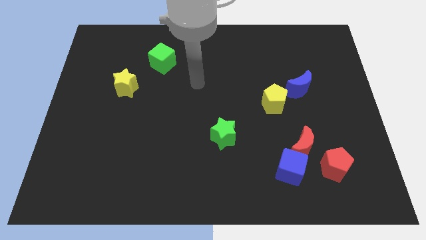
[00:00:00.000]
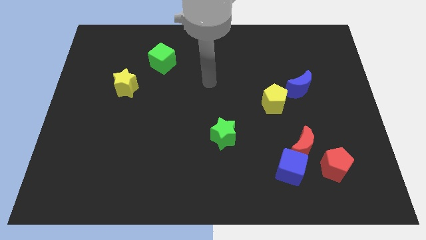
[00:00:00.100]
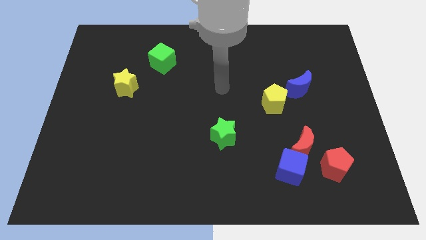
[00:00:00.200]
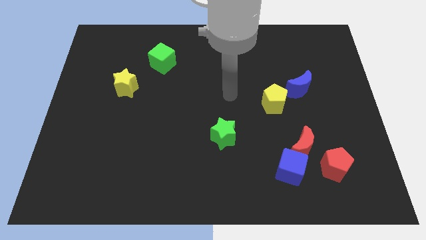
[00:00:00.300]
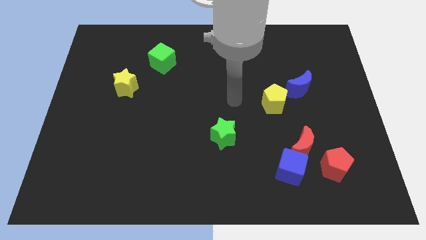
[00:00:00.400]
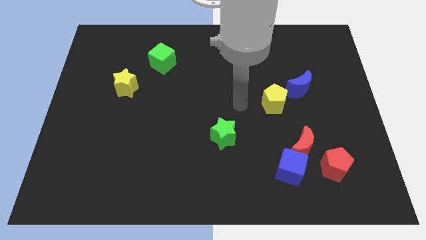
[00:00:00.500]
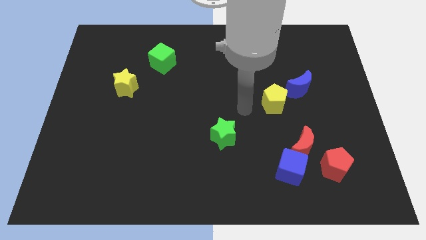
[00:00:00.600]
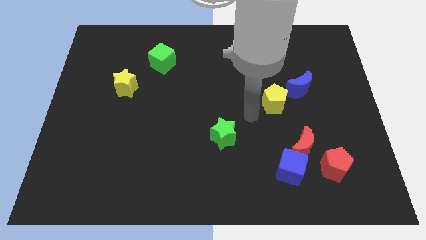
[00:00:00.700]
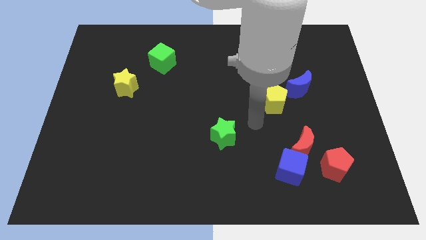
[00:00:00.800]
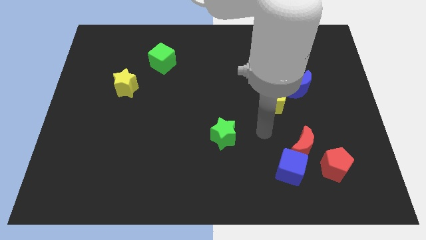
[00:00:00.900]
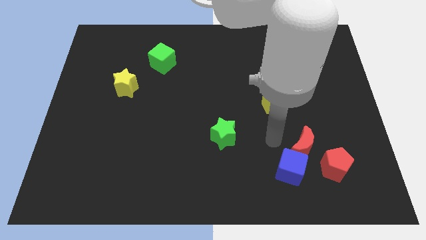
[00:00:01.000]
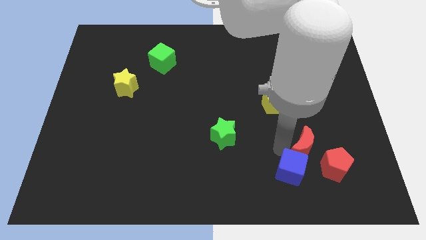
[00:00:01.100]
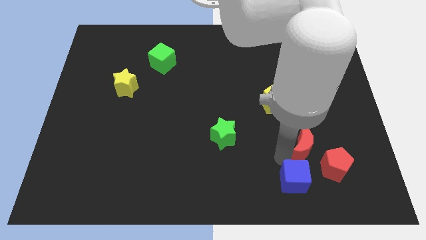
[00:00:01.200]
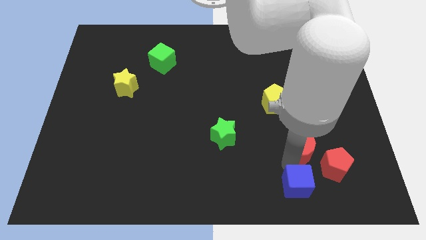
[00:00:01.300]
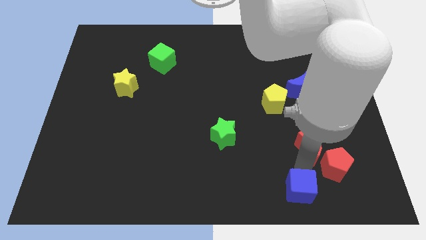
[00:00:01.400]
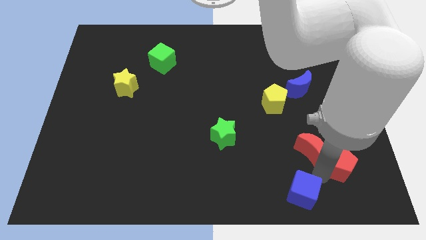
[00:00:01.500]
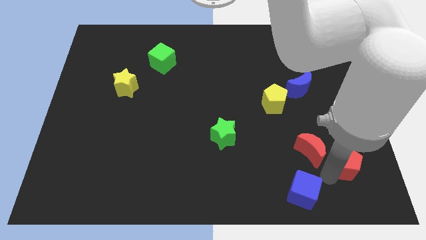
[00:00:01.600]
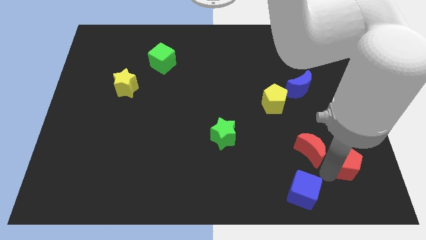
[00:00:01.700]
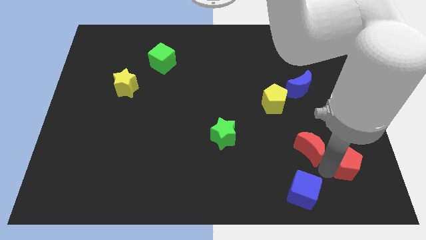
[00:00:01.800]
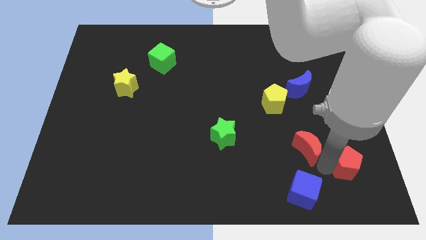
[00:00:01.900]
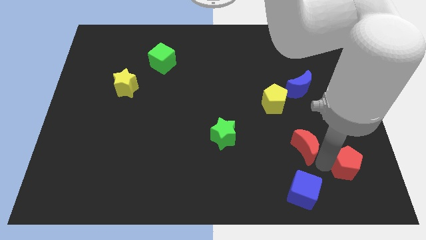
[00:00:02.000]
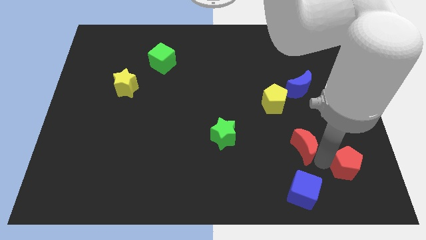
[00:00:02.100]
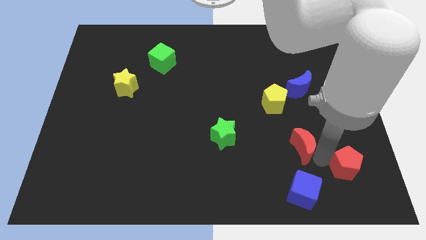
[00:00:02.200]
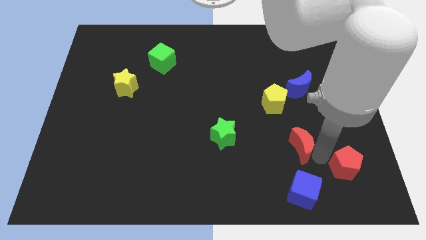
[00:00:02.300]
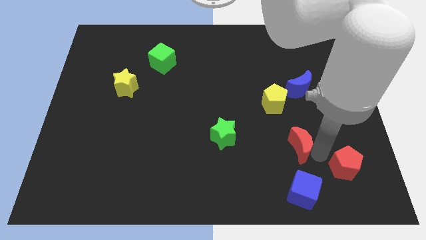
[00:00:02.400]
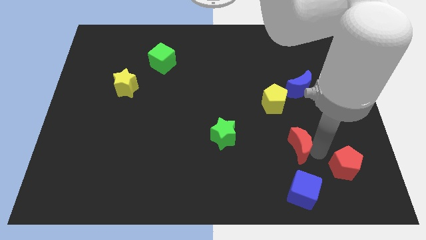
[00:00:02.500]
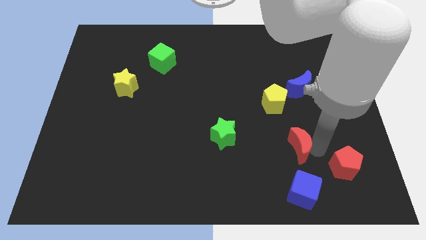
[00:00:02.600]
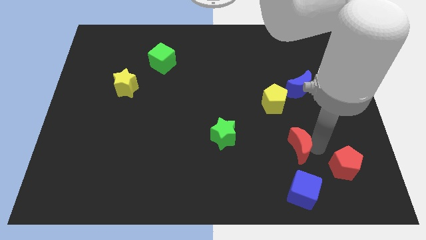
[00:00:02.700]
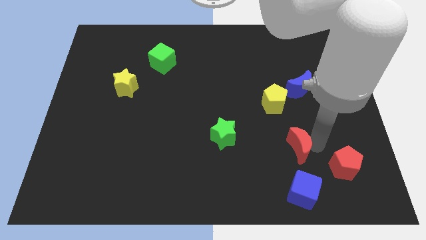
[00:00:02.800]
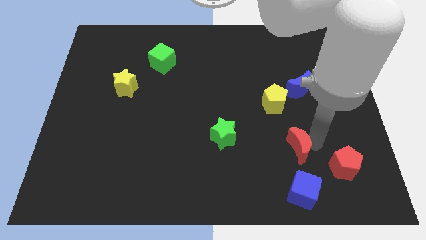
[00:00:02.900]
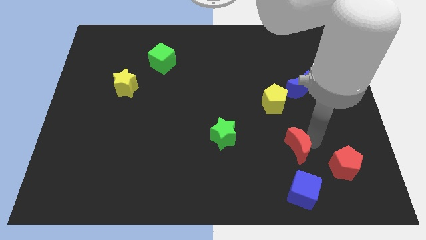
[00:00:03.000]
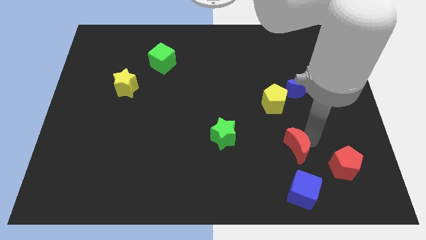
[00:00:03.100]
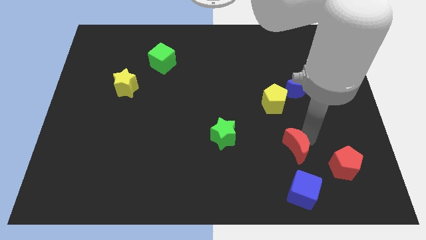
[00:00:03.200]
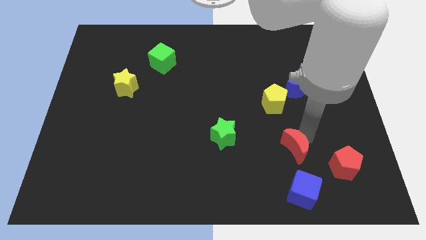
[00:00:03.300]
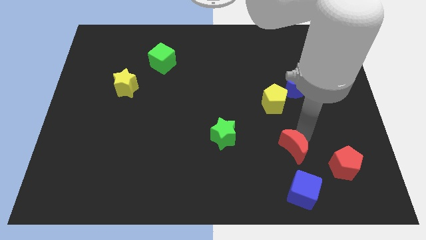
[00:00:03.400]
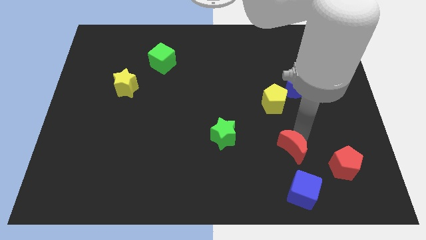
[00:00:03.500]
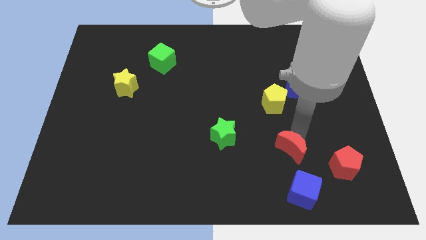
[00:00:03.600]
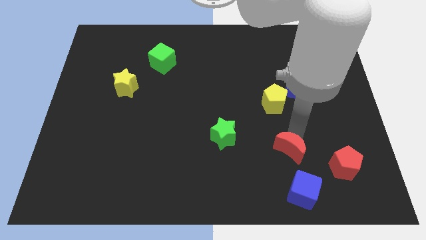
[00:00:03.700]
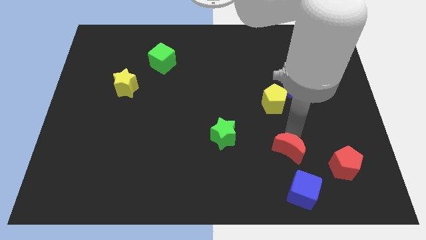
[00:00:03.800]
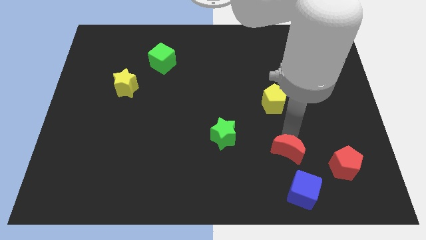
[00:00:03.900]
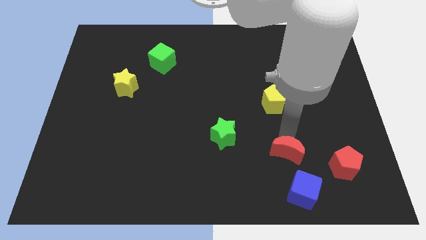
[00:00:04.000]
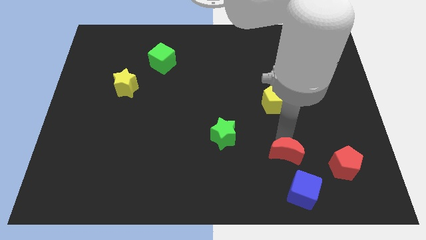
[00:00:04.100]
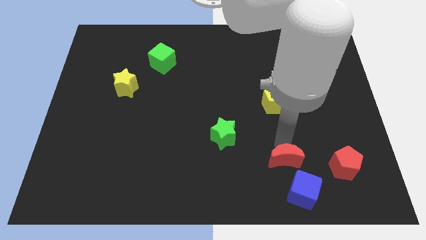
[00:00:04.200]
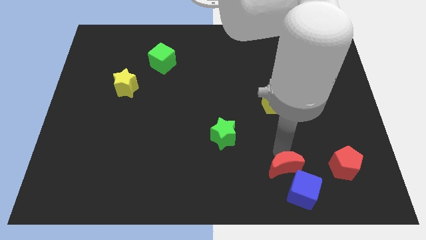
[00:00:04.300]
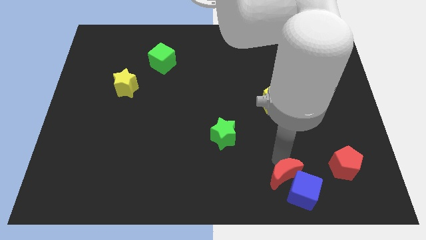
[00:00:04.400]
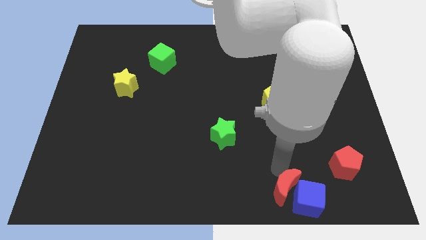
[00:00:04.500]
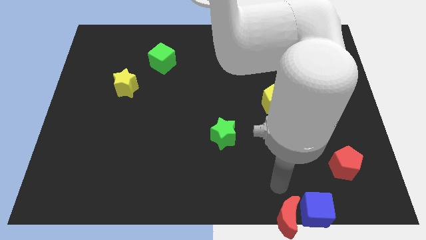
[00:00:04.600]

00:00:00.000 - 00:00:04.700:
pull the red moon apart from the blue cube and red pentagon

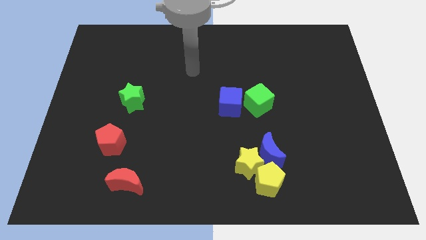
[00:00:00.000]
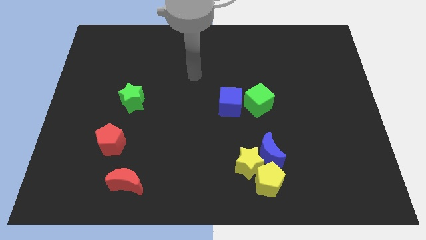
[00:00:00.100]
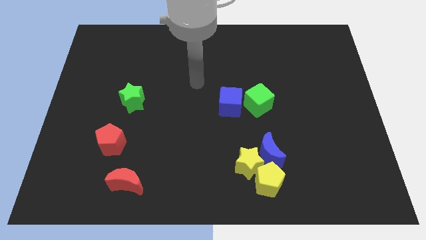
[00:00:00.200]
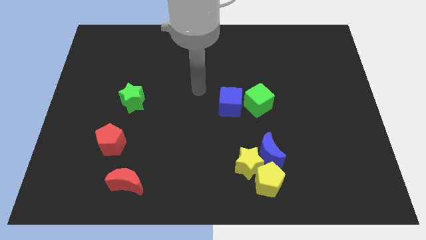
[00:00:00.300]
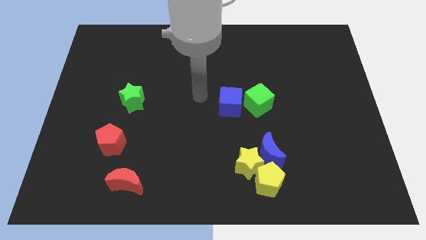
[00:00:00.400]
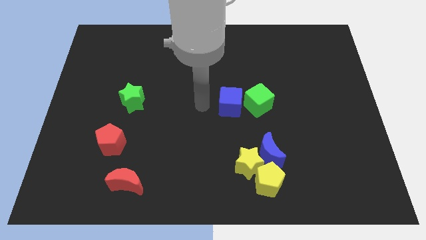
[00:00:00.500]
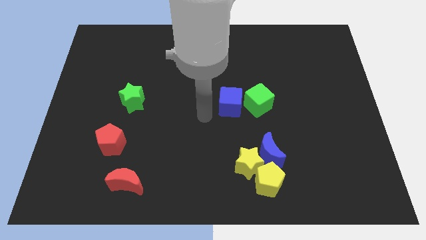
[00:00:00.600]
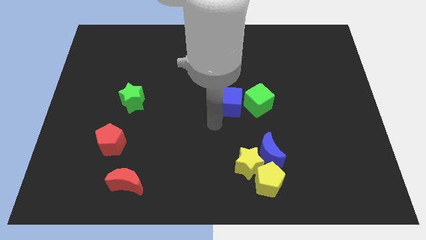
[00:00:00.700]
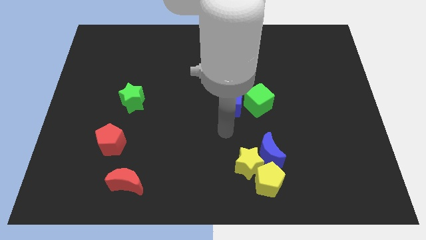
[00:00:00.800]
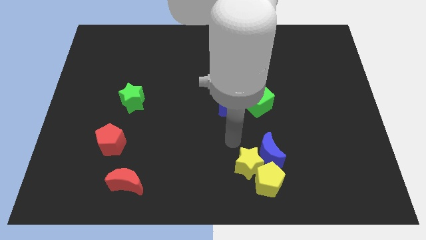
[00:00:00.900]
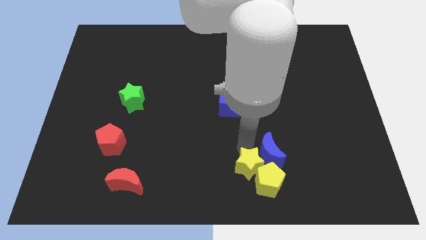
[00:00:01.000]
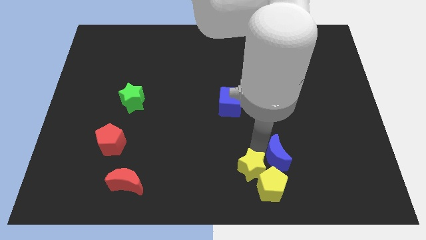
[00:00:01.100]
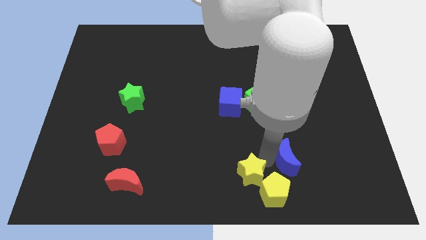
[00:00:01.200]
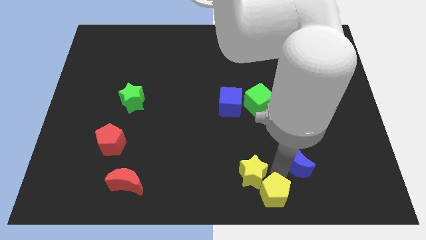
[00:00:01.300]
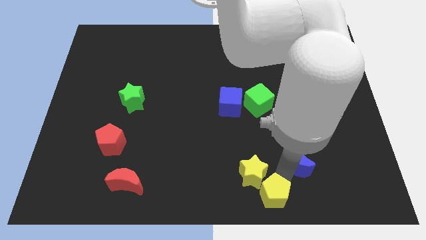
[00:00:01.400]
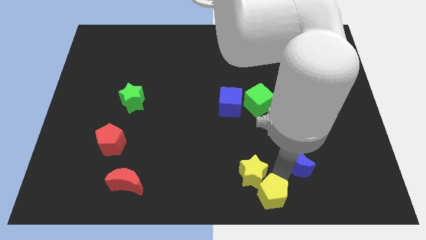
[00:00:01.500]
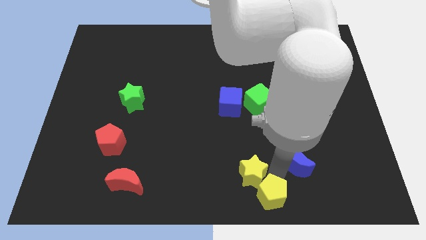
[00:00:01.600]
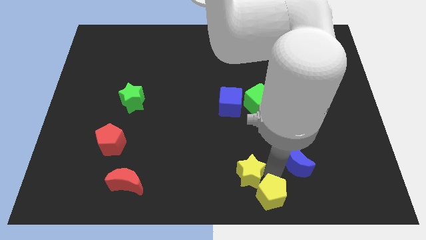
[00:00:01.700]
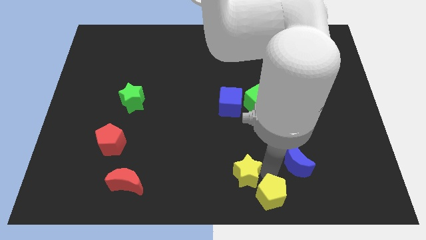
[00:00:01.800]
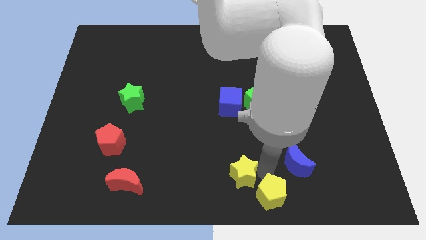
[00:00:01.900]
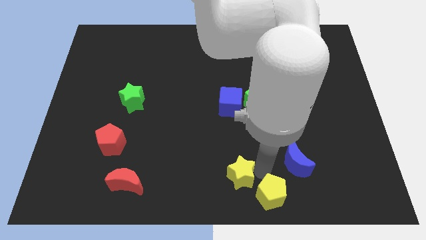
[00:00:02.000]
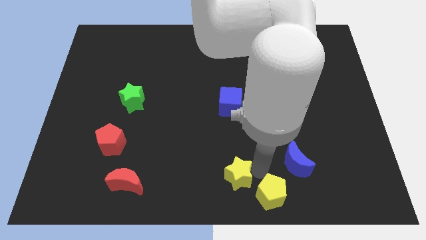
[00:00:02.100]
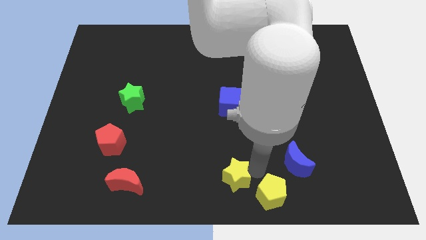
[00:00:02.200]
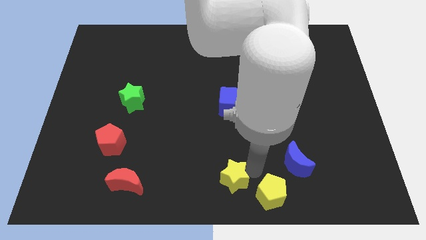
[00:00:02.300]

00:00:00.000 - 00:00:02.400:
move the yellow star away from the blue moon and yellow pentagon

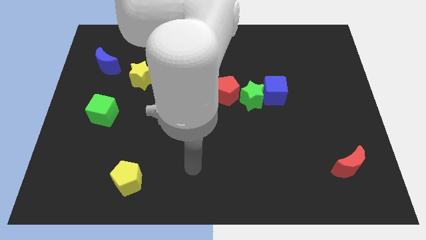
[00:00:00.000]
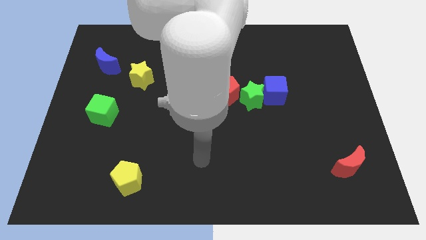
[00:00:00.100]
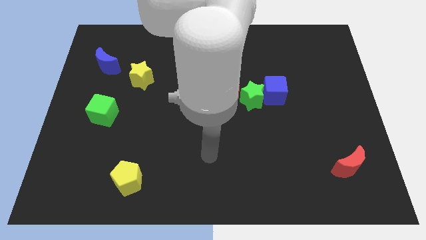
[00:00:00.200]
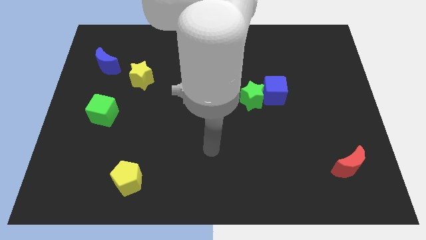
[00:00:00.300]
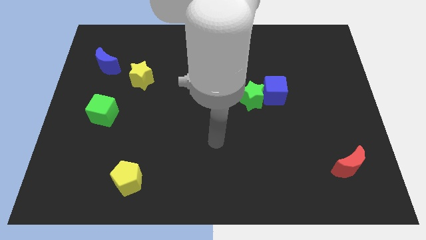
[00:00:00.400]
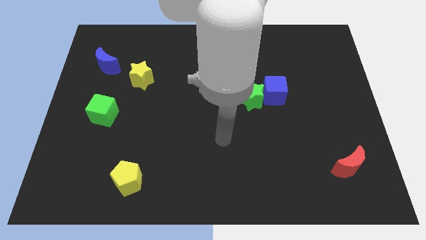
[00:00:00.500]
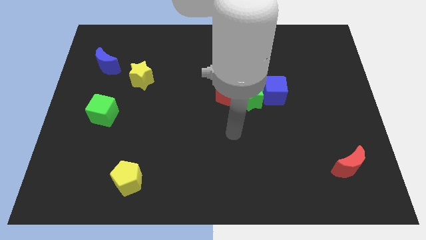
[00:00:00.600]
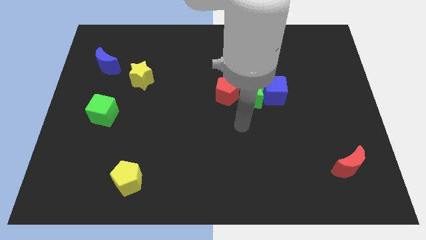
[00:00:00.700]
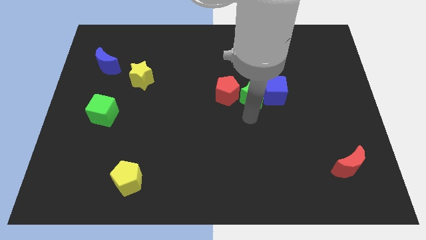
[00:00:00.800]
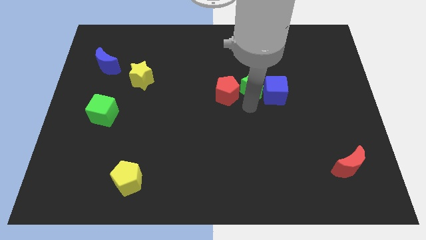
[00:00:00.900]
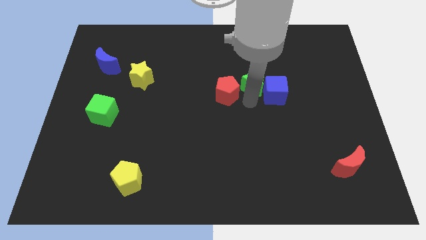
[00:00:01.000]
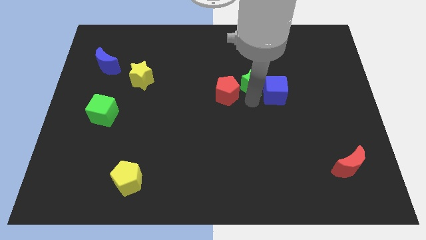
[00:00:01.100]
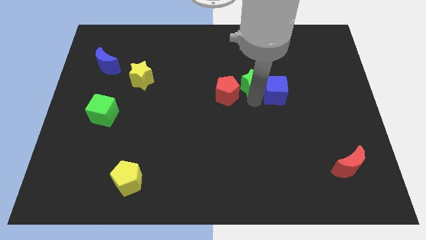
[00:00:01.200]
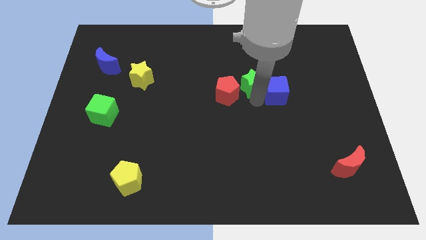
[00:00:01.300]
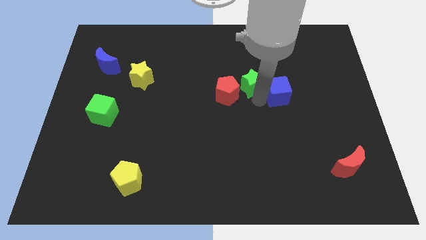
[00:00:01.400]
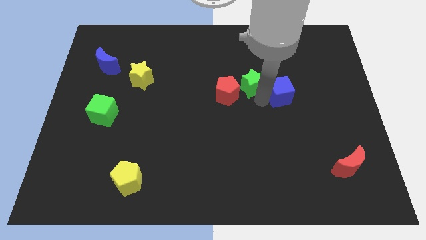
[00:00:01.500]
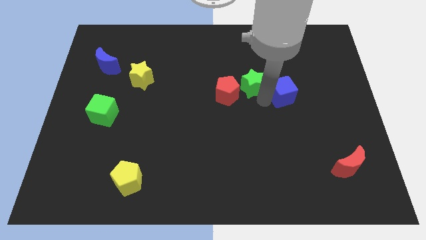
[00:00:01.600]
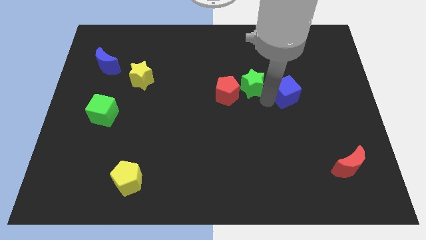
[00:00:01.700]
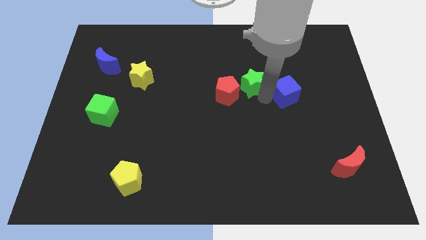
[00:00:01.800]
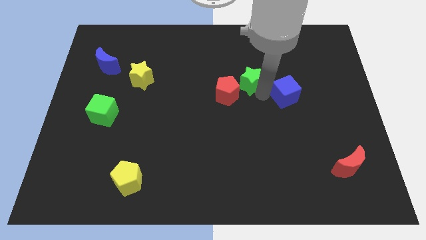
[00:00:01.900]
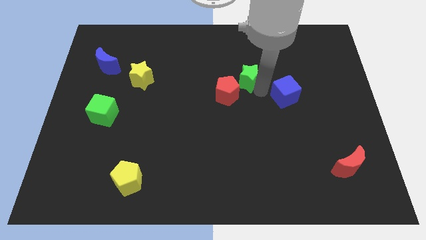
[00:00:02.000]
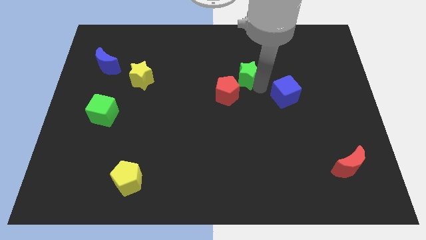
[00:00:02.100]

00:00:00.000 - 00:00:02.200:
move the blue cube away from the green star
